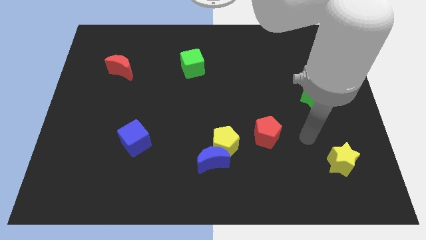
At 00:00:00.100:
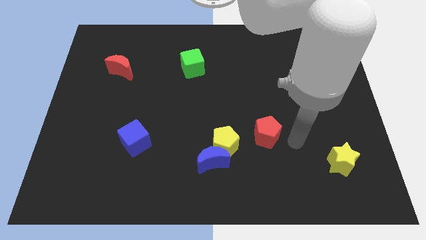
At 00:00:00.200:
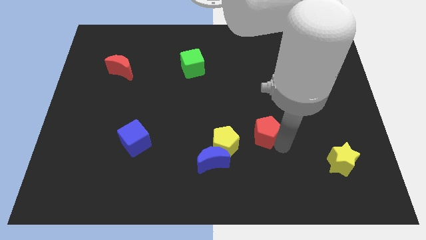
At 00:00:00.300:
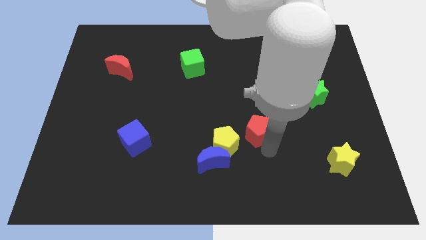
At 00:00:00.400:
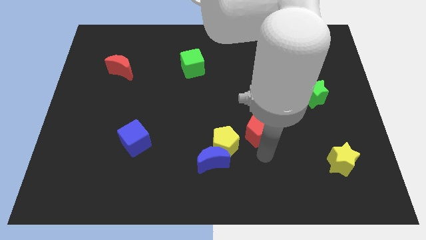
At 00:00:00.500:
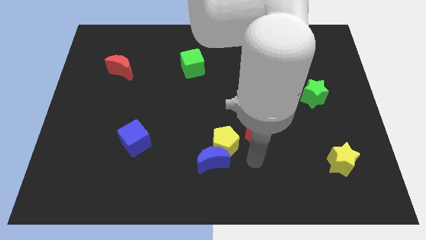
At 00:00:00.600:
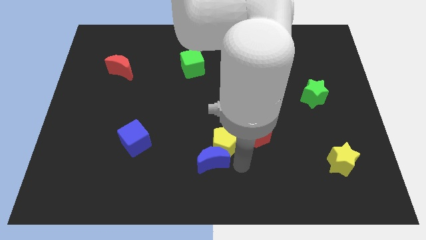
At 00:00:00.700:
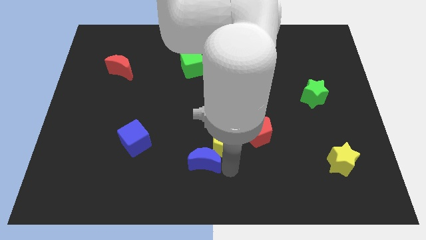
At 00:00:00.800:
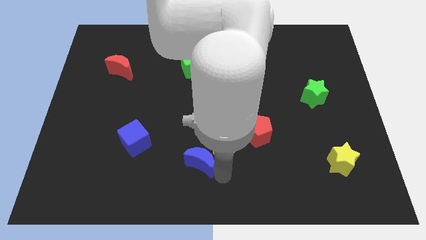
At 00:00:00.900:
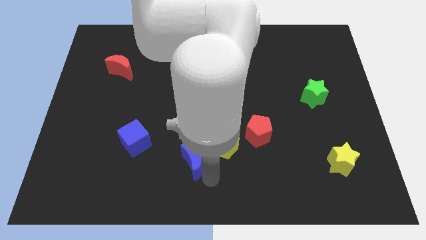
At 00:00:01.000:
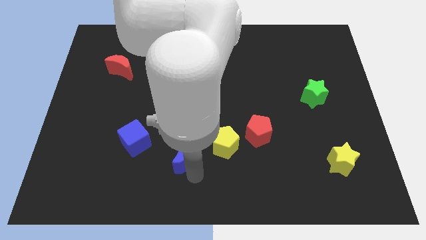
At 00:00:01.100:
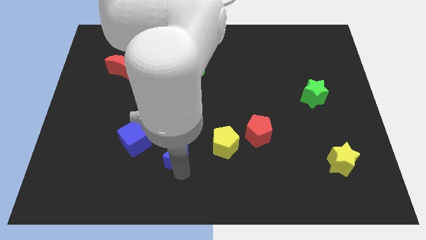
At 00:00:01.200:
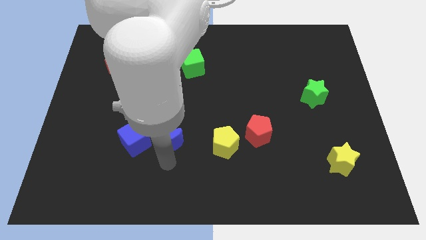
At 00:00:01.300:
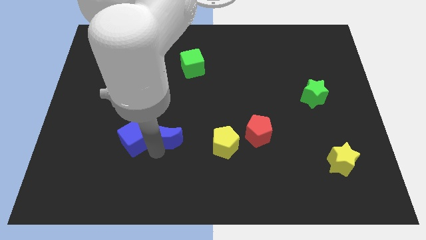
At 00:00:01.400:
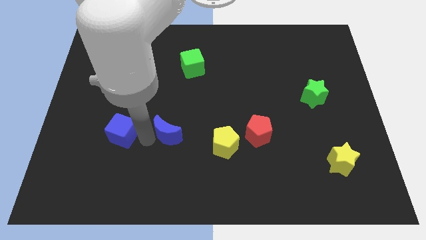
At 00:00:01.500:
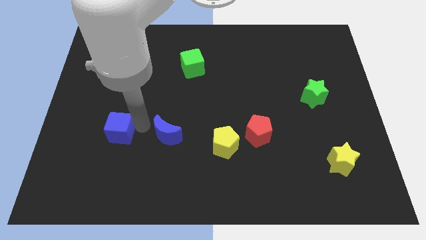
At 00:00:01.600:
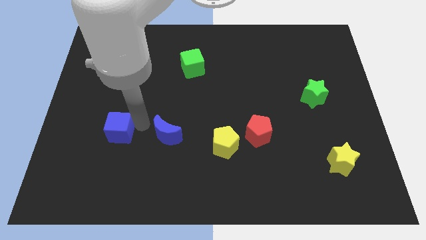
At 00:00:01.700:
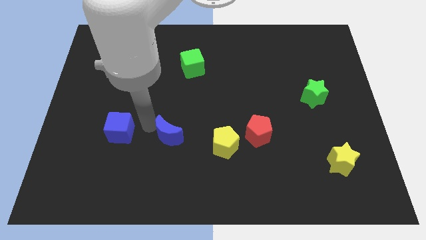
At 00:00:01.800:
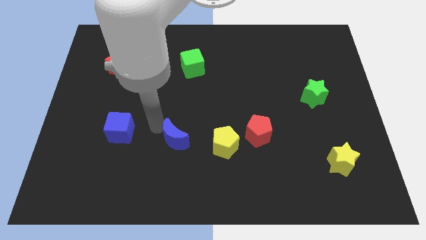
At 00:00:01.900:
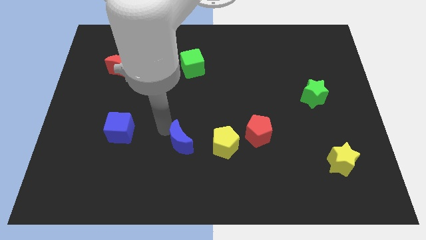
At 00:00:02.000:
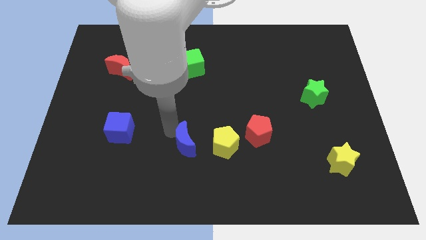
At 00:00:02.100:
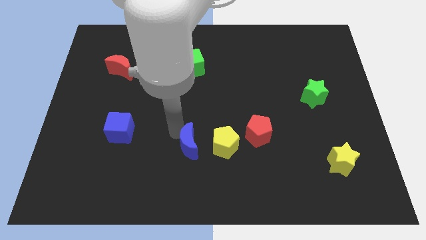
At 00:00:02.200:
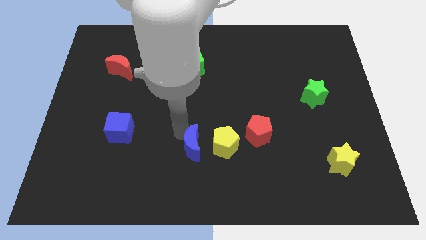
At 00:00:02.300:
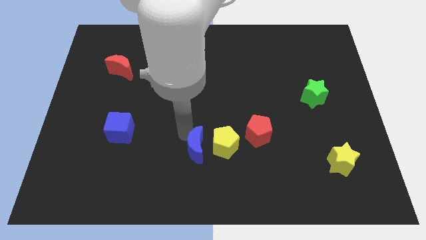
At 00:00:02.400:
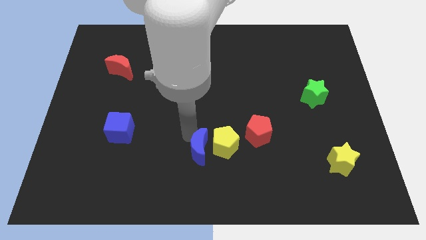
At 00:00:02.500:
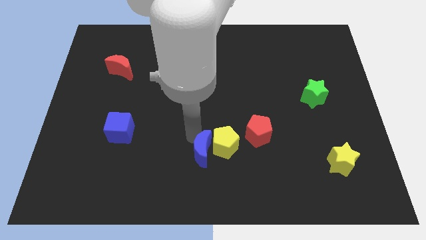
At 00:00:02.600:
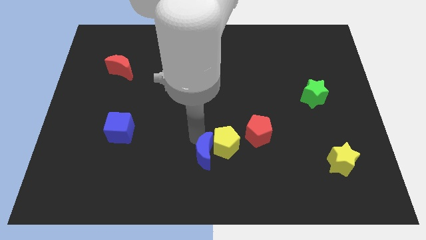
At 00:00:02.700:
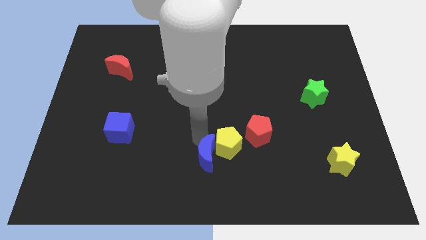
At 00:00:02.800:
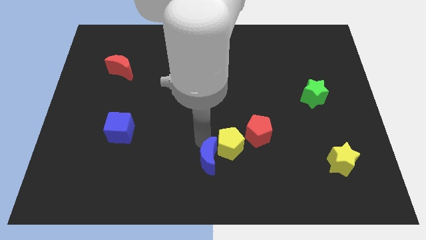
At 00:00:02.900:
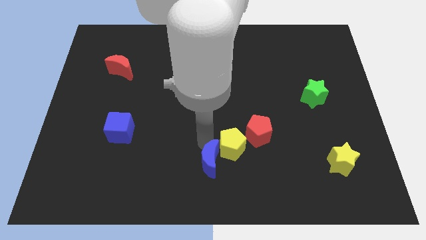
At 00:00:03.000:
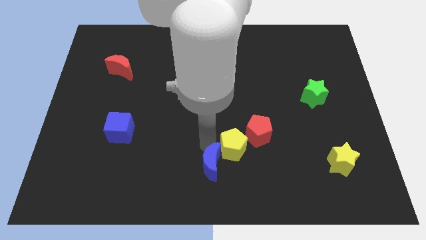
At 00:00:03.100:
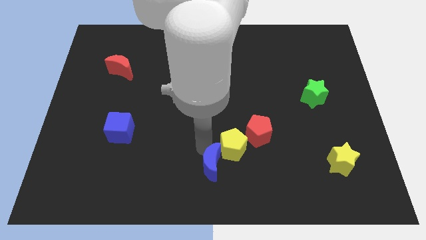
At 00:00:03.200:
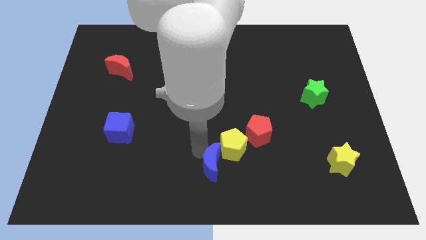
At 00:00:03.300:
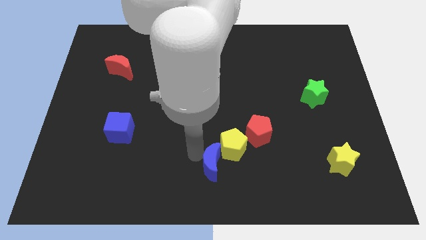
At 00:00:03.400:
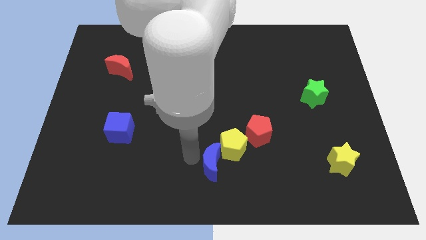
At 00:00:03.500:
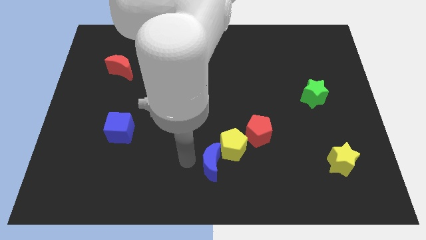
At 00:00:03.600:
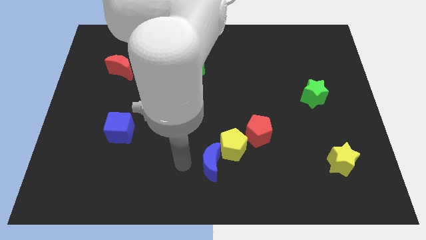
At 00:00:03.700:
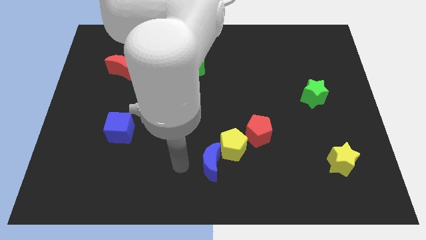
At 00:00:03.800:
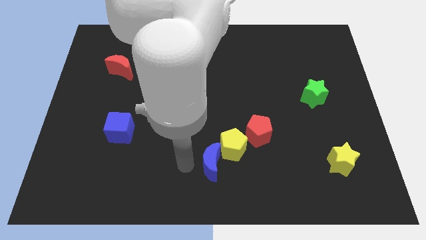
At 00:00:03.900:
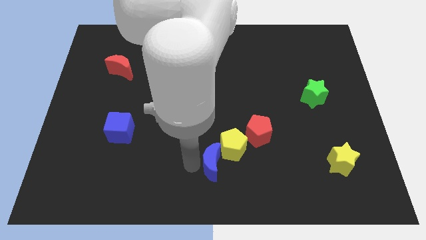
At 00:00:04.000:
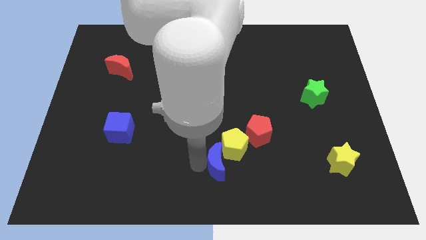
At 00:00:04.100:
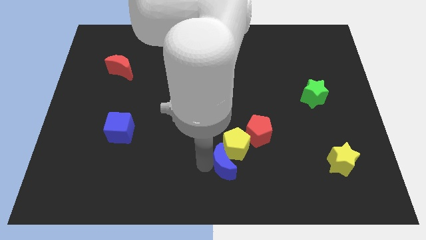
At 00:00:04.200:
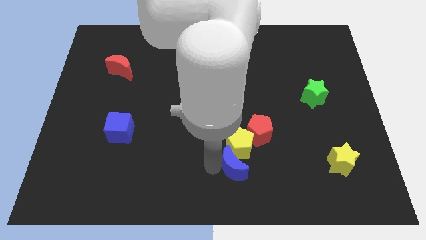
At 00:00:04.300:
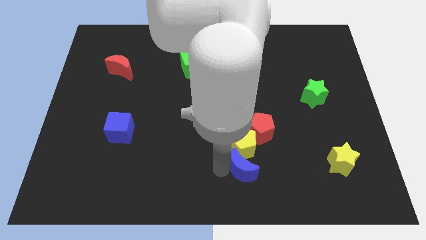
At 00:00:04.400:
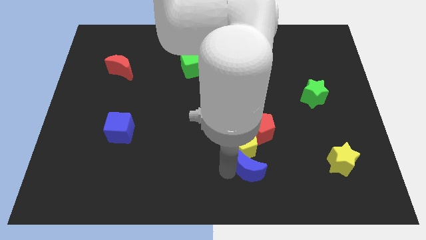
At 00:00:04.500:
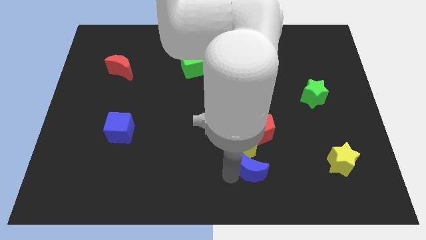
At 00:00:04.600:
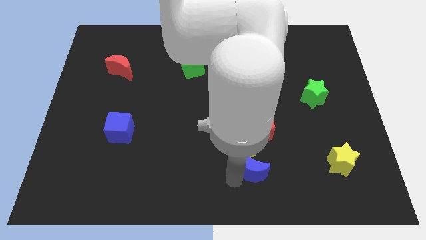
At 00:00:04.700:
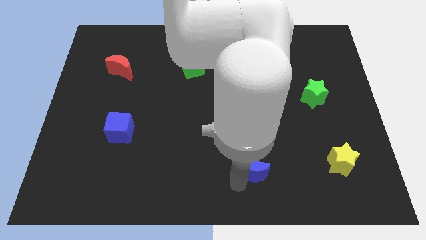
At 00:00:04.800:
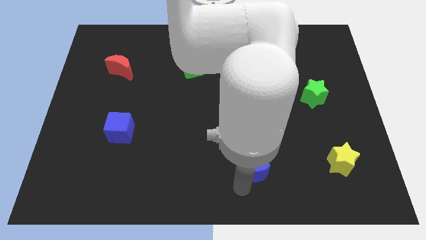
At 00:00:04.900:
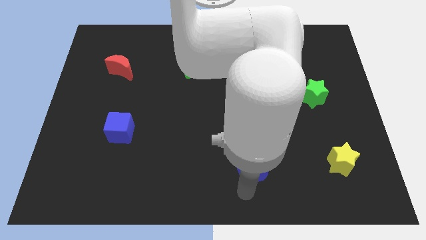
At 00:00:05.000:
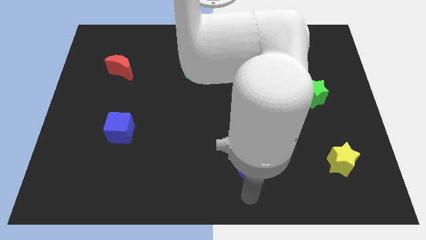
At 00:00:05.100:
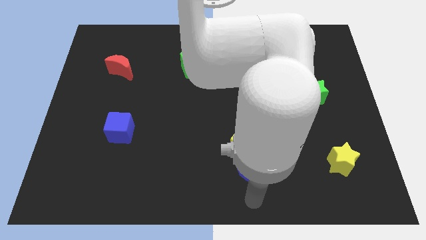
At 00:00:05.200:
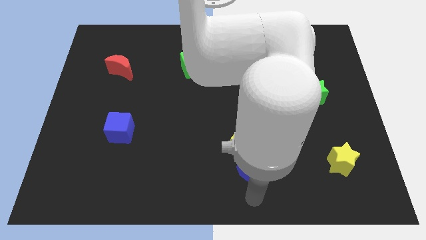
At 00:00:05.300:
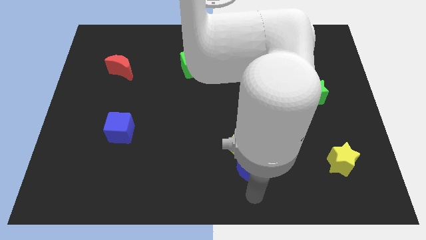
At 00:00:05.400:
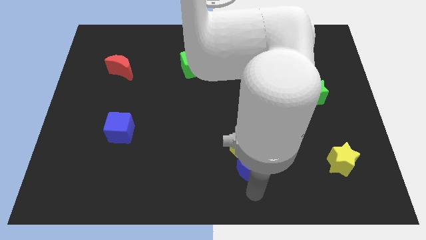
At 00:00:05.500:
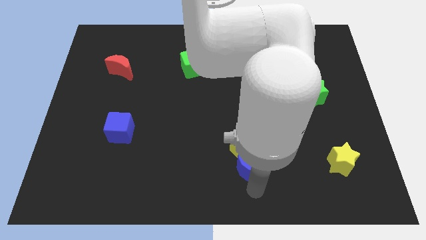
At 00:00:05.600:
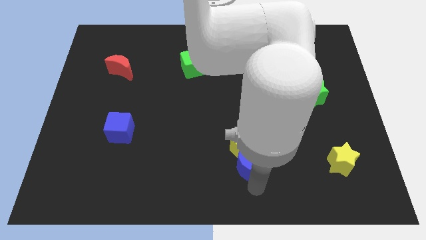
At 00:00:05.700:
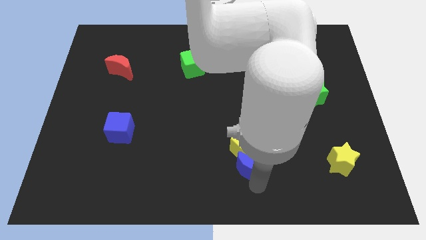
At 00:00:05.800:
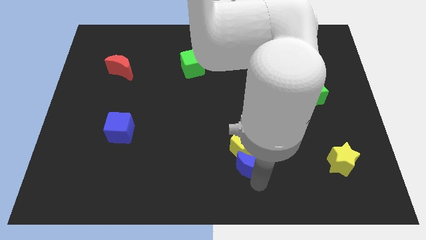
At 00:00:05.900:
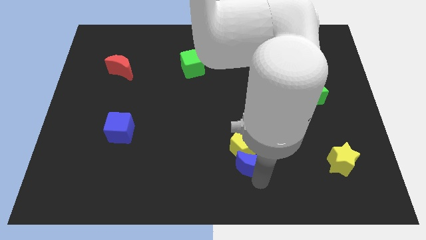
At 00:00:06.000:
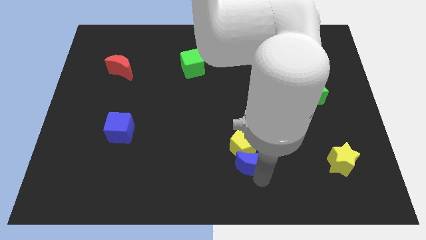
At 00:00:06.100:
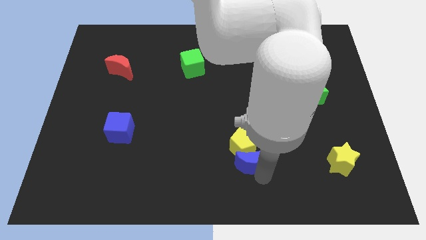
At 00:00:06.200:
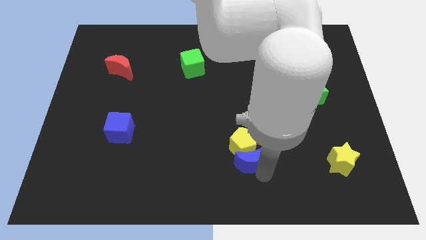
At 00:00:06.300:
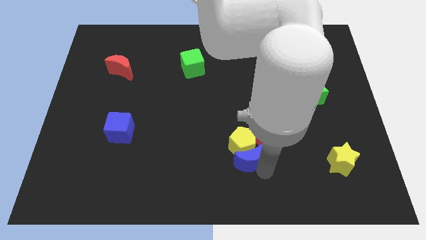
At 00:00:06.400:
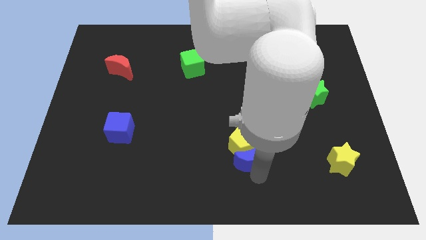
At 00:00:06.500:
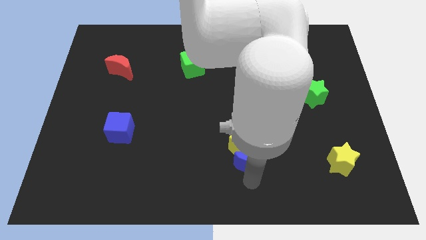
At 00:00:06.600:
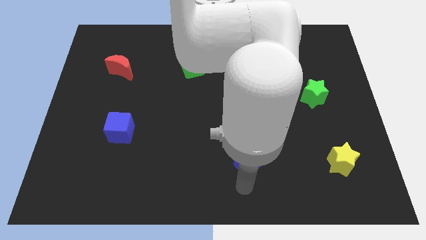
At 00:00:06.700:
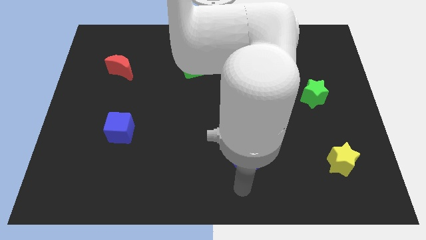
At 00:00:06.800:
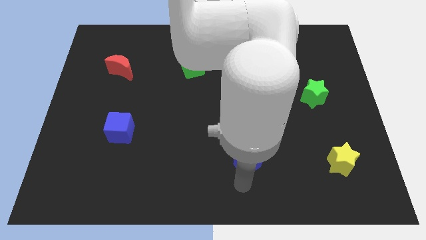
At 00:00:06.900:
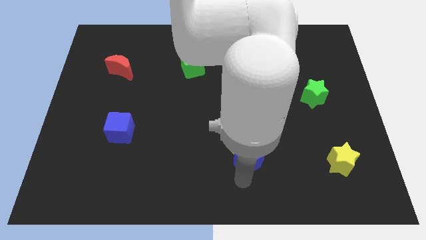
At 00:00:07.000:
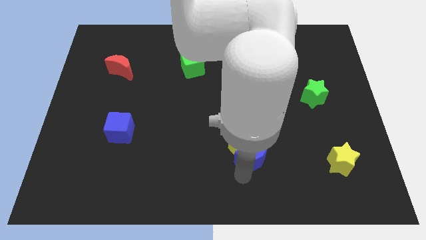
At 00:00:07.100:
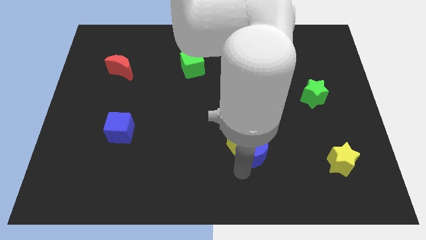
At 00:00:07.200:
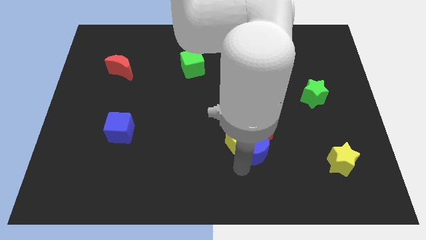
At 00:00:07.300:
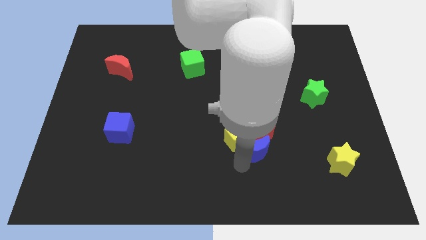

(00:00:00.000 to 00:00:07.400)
move the blue moon to the red pentagon
